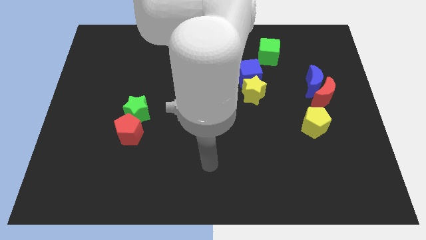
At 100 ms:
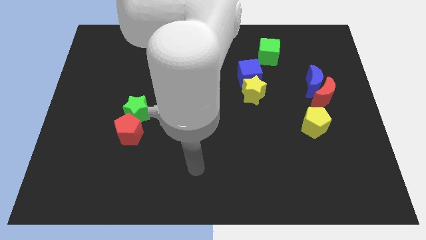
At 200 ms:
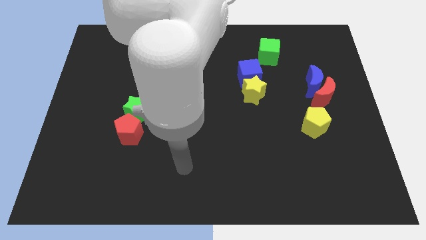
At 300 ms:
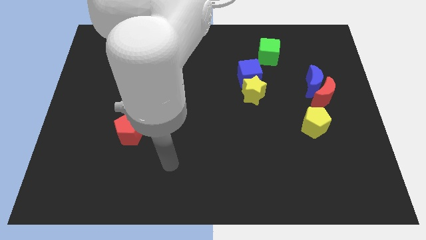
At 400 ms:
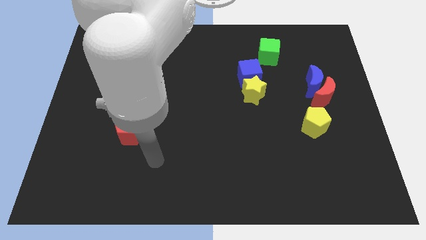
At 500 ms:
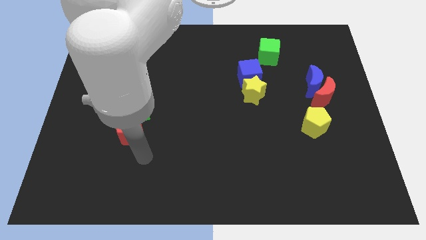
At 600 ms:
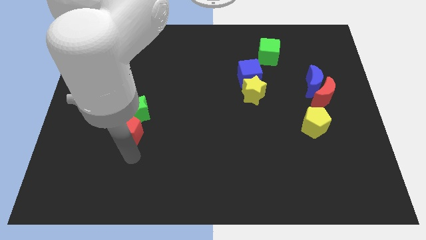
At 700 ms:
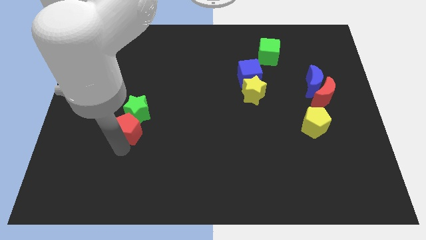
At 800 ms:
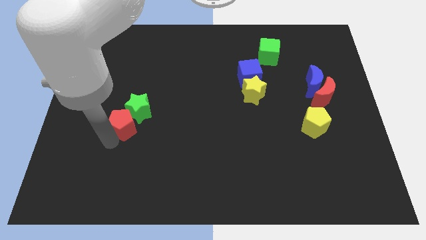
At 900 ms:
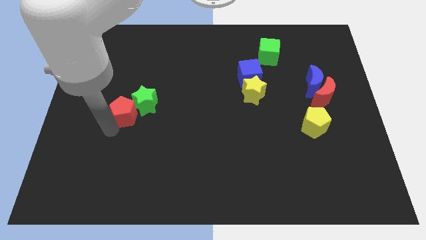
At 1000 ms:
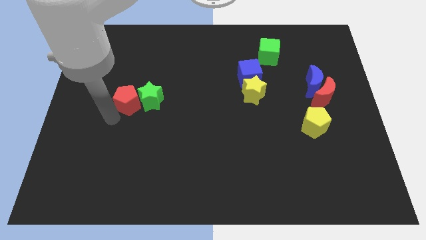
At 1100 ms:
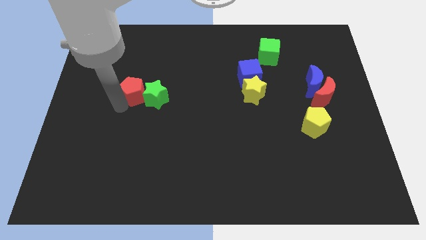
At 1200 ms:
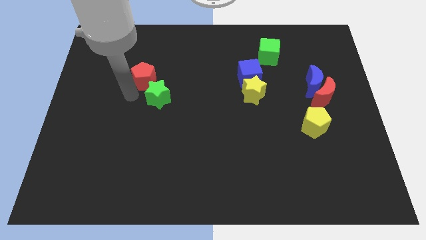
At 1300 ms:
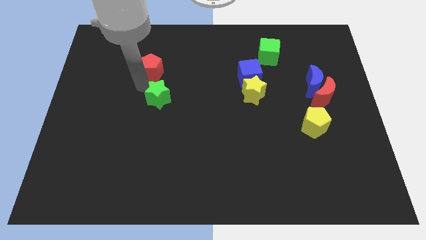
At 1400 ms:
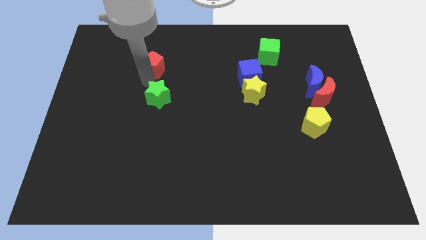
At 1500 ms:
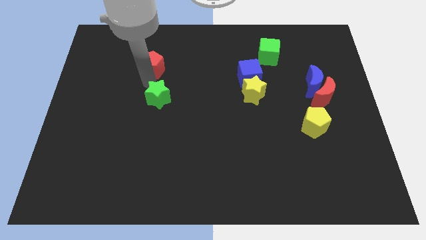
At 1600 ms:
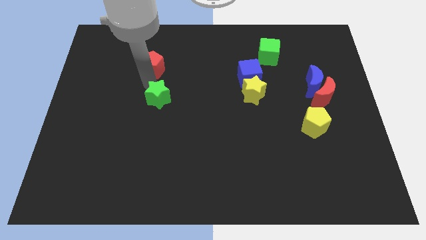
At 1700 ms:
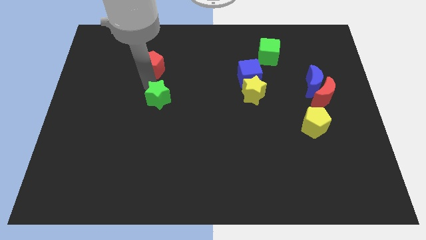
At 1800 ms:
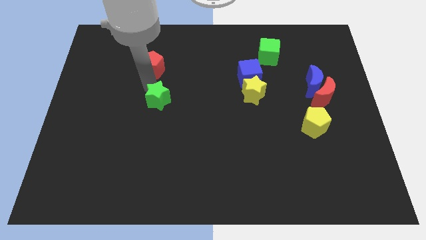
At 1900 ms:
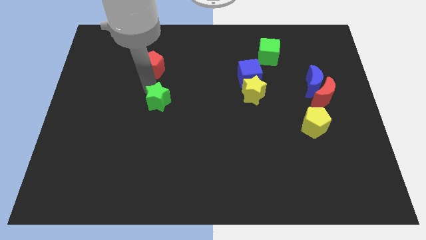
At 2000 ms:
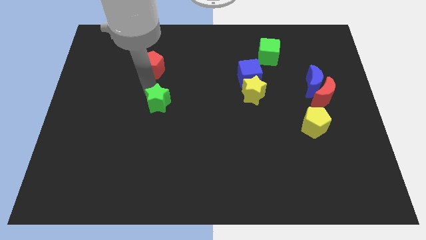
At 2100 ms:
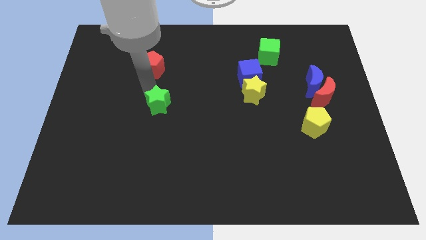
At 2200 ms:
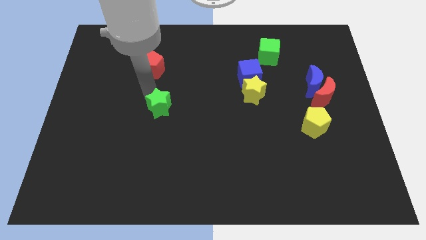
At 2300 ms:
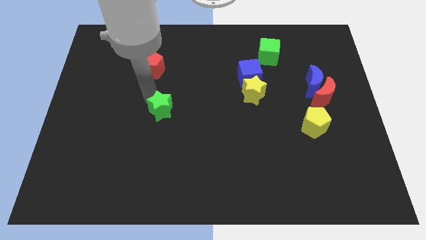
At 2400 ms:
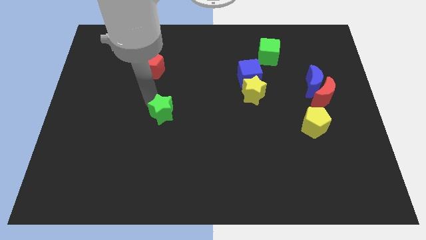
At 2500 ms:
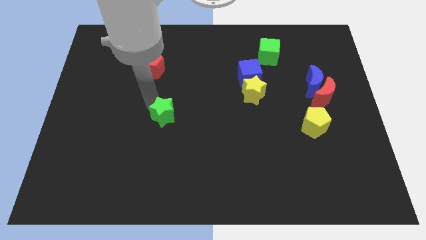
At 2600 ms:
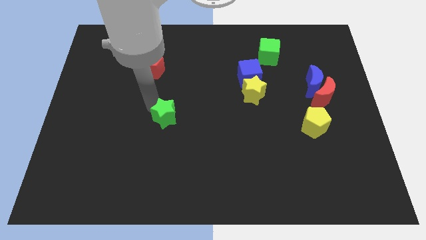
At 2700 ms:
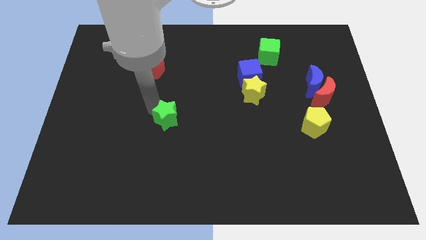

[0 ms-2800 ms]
move the green star somewhat right

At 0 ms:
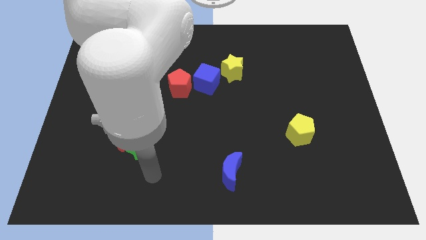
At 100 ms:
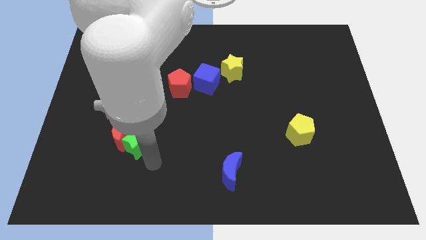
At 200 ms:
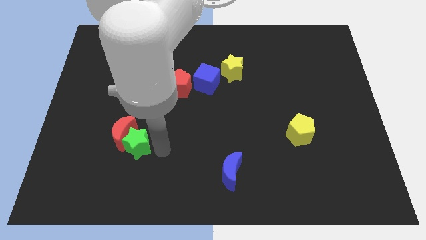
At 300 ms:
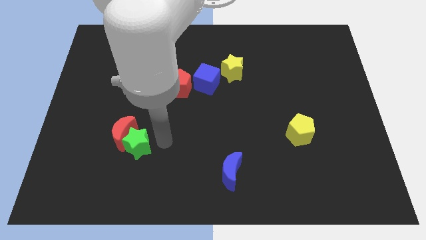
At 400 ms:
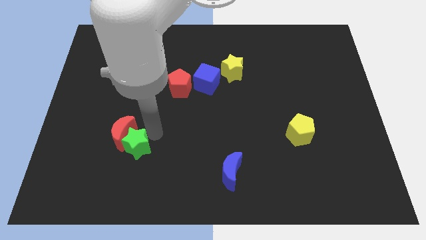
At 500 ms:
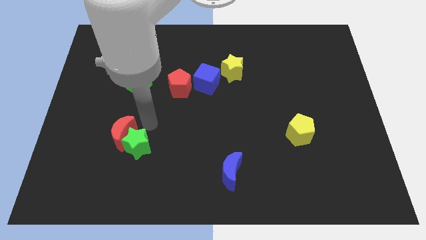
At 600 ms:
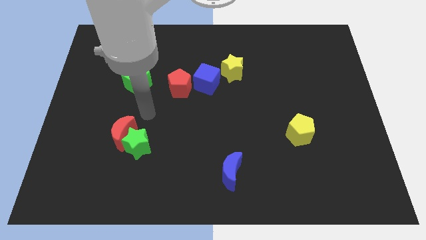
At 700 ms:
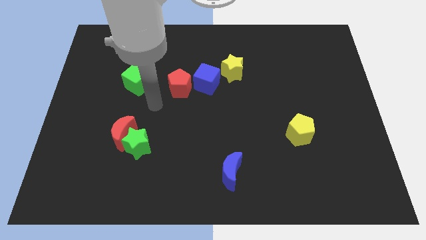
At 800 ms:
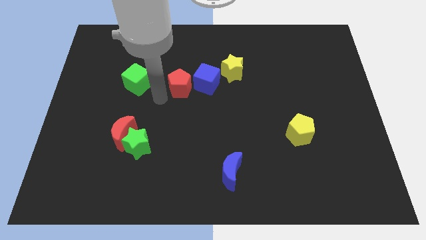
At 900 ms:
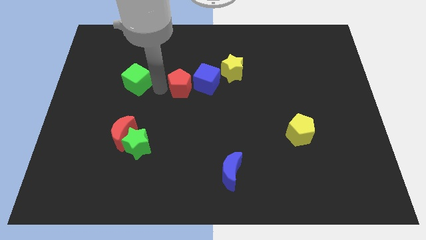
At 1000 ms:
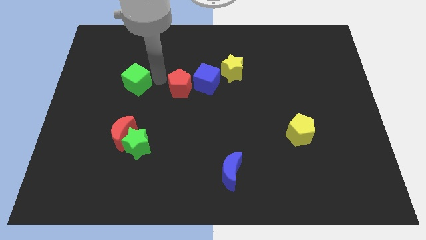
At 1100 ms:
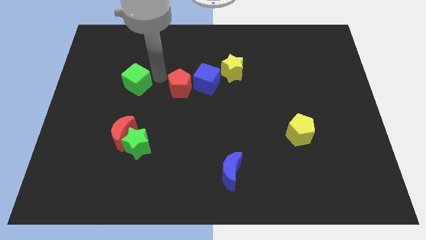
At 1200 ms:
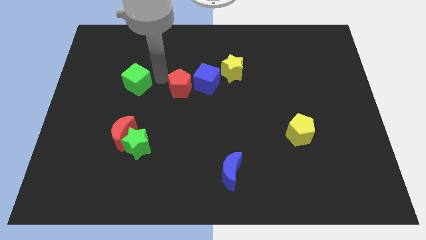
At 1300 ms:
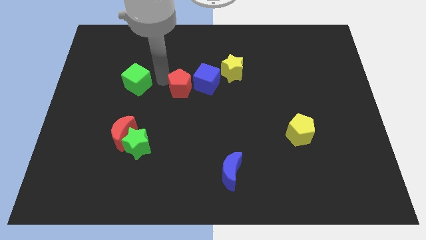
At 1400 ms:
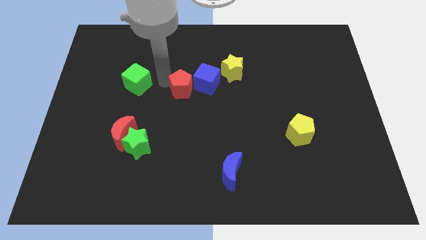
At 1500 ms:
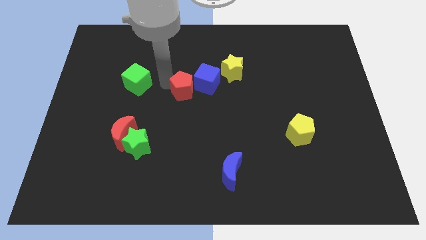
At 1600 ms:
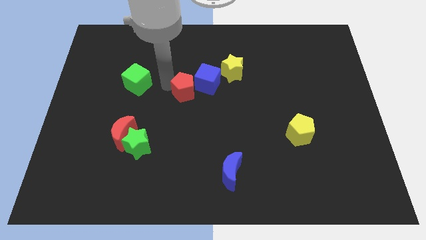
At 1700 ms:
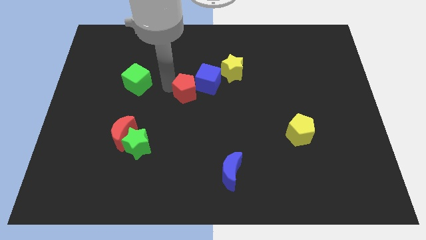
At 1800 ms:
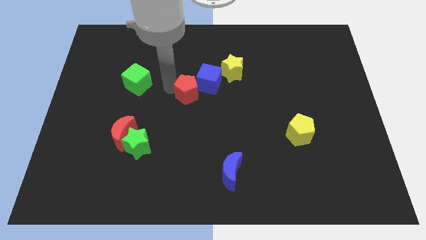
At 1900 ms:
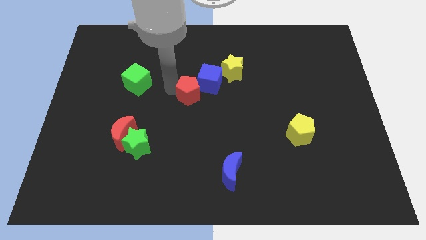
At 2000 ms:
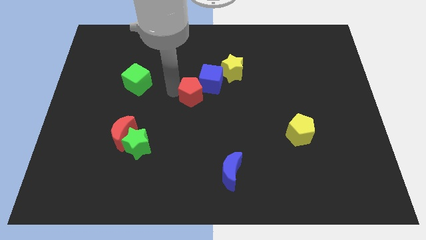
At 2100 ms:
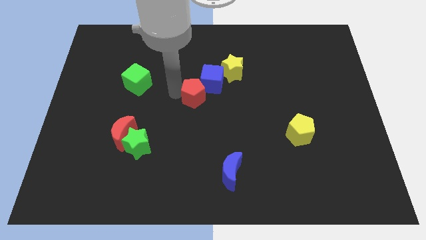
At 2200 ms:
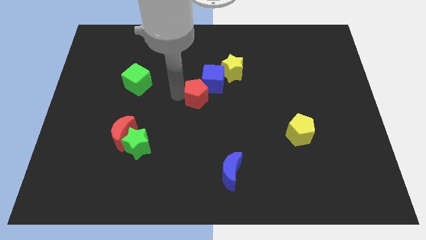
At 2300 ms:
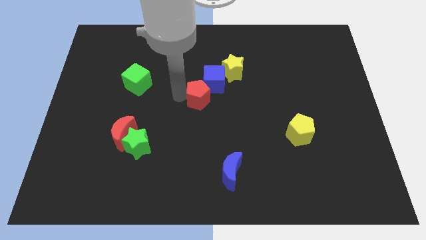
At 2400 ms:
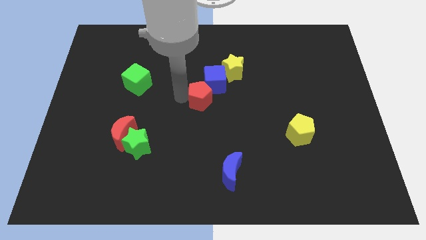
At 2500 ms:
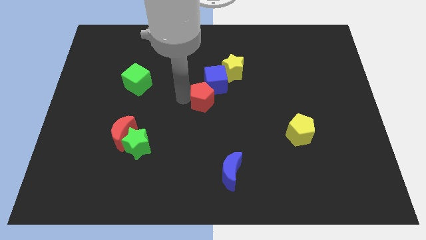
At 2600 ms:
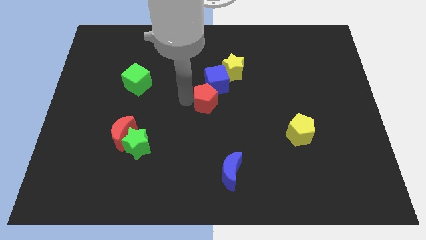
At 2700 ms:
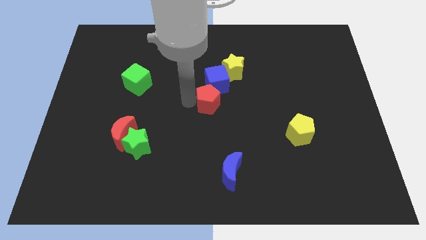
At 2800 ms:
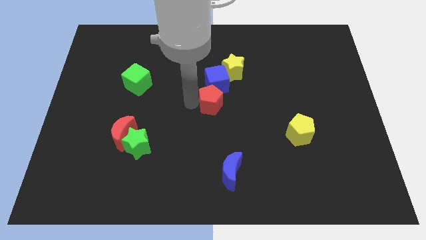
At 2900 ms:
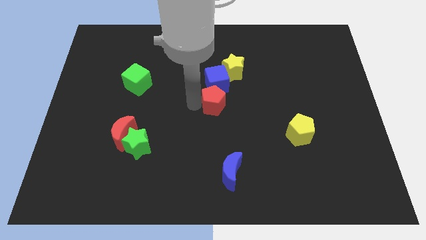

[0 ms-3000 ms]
slightly push the red pentagon to the right

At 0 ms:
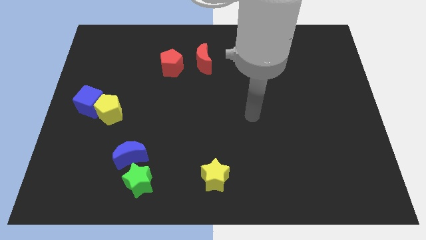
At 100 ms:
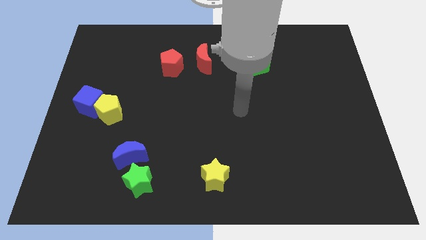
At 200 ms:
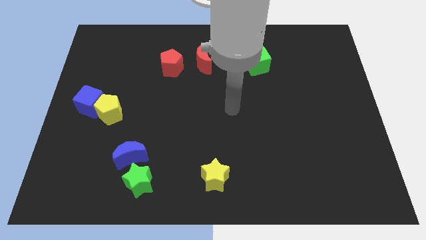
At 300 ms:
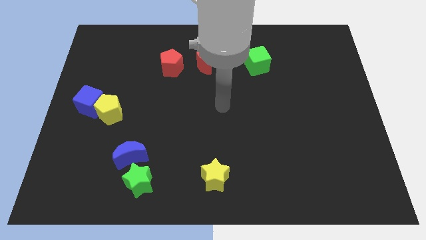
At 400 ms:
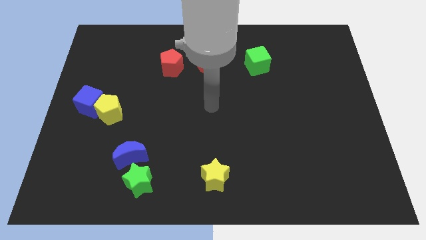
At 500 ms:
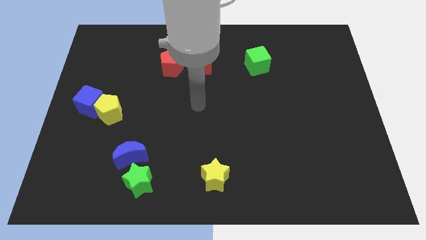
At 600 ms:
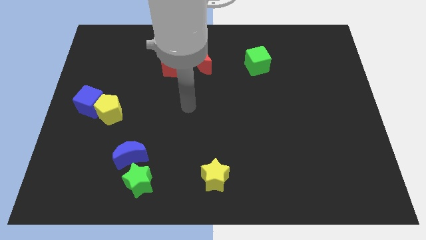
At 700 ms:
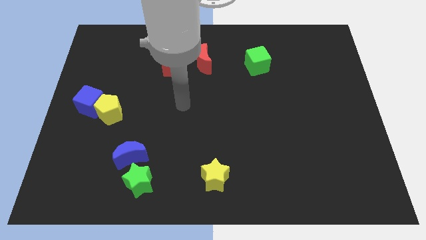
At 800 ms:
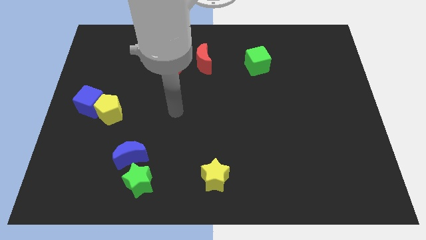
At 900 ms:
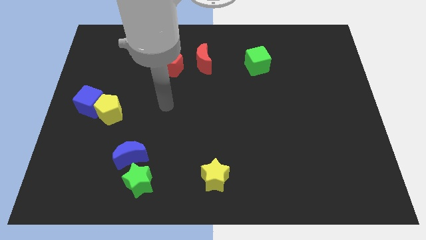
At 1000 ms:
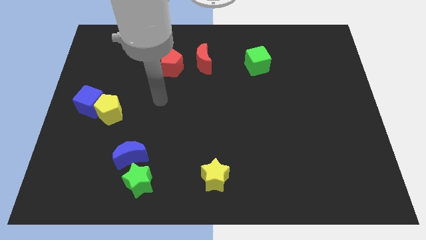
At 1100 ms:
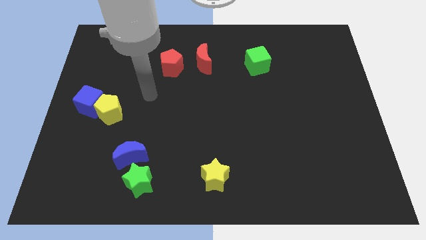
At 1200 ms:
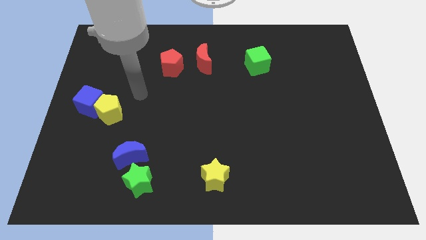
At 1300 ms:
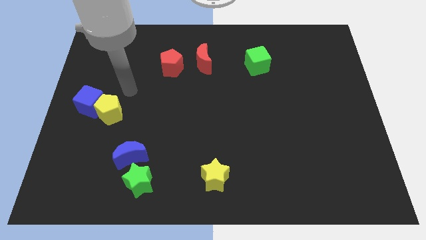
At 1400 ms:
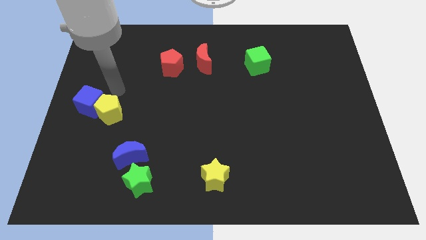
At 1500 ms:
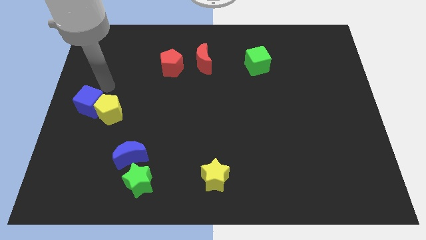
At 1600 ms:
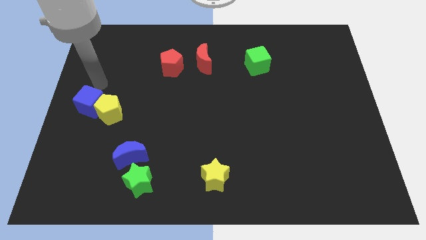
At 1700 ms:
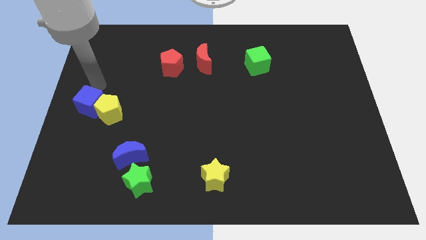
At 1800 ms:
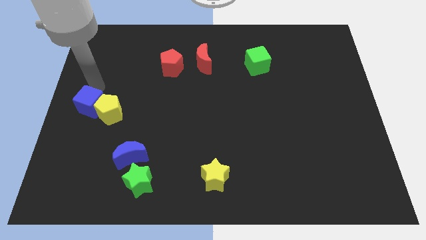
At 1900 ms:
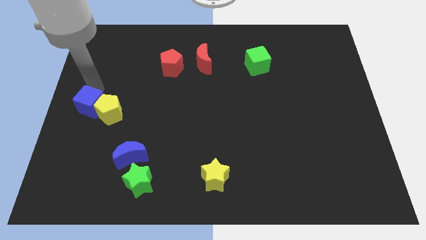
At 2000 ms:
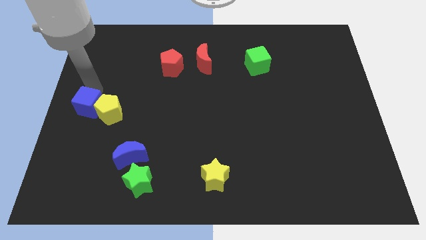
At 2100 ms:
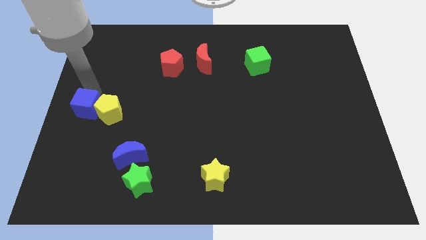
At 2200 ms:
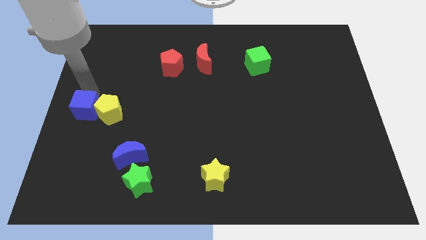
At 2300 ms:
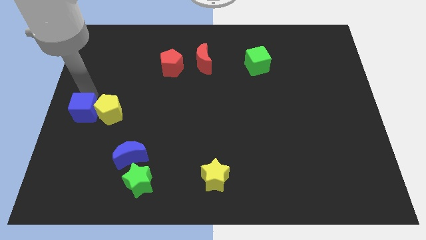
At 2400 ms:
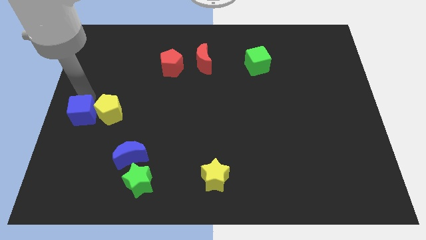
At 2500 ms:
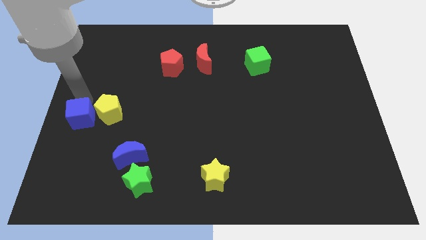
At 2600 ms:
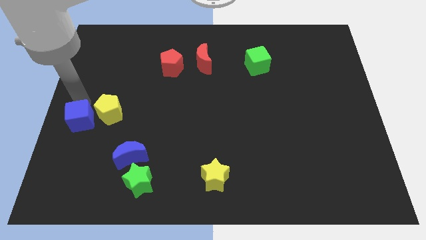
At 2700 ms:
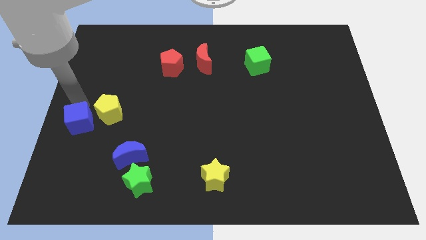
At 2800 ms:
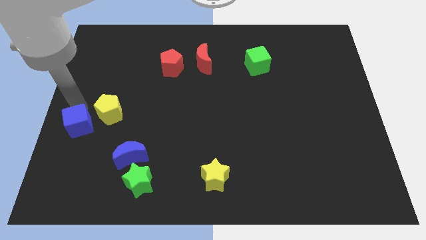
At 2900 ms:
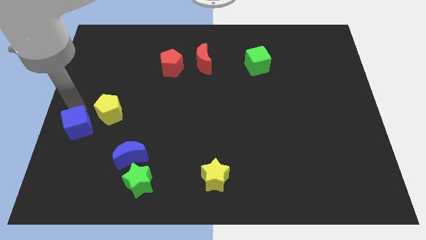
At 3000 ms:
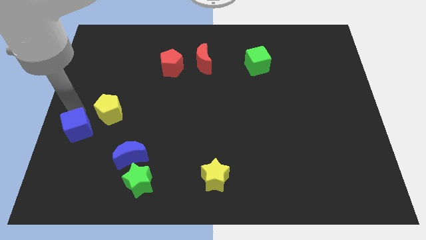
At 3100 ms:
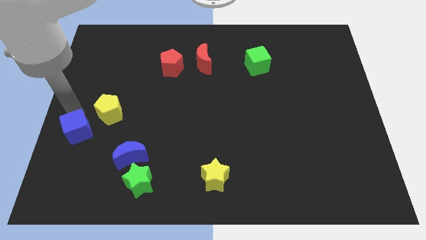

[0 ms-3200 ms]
slightly move the blue cube downwards
